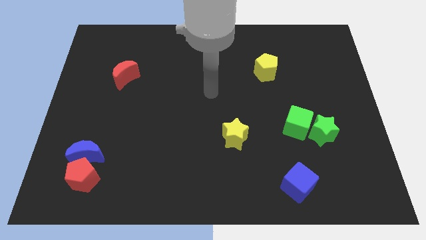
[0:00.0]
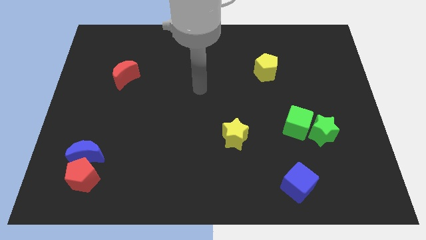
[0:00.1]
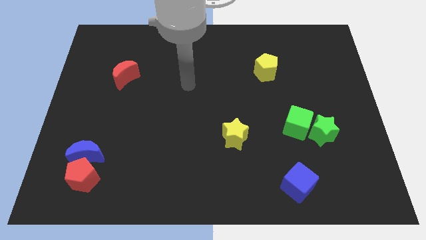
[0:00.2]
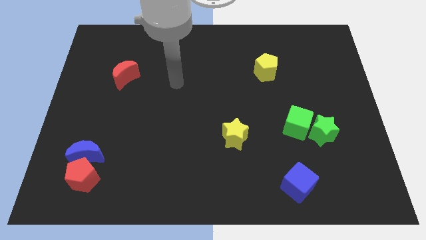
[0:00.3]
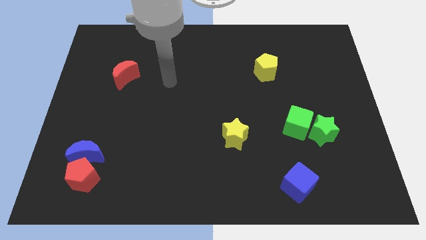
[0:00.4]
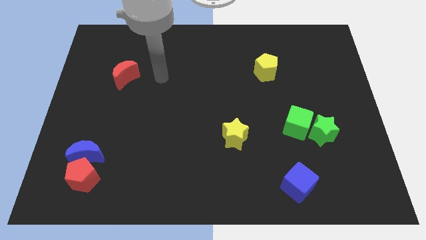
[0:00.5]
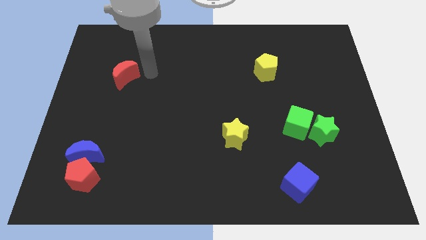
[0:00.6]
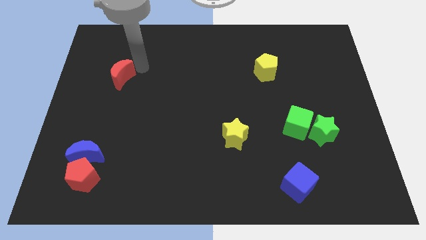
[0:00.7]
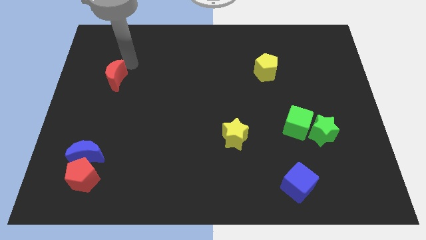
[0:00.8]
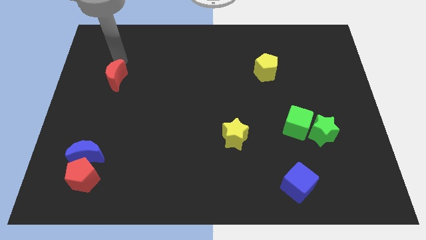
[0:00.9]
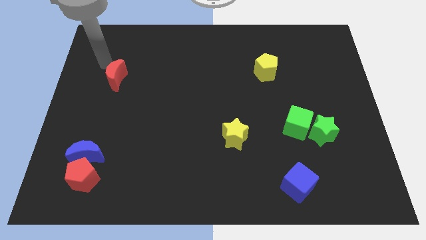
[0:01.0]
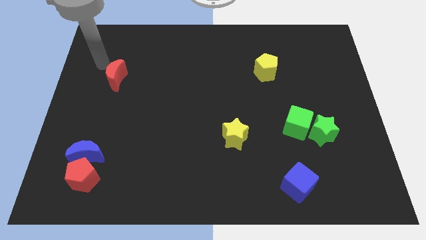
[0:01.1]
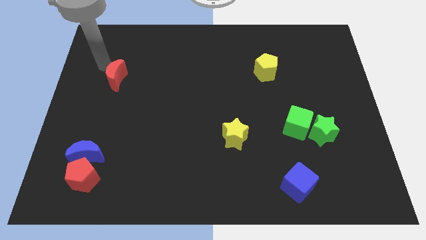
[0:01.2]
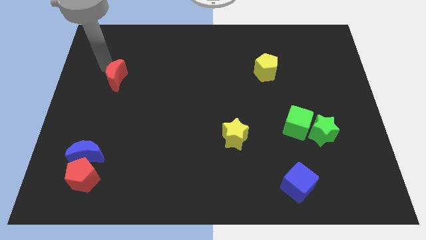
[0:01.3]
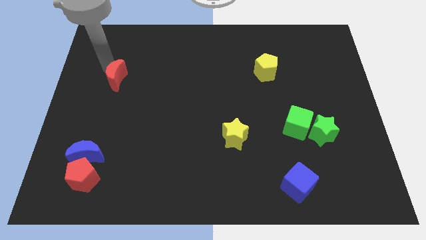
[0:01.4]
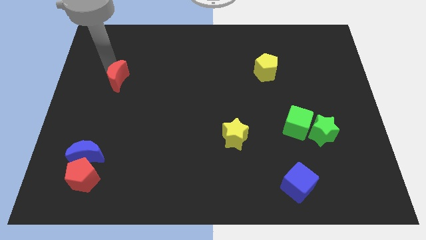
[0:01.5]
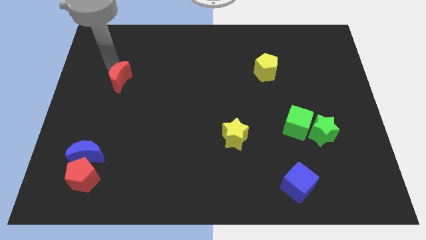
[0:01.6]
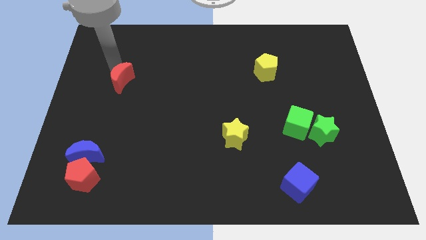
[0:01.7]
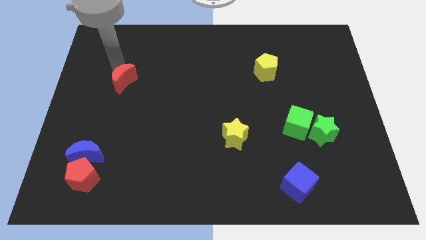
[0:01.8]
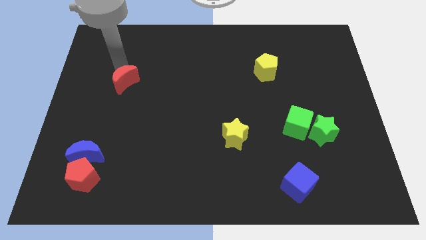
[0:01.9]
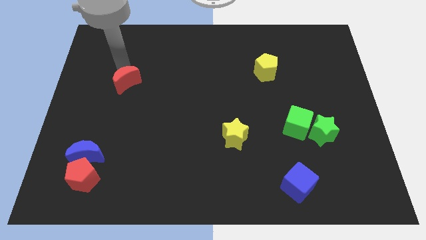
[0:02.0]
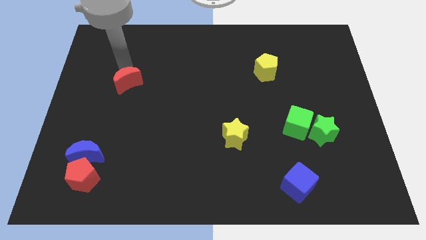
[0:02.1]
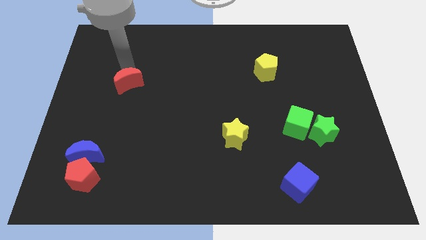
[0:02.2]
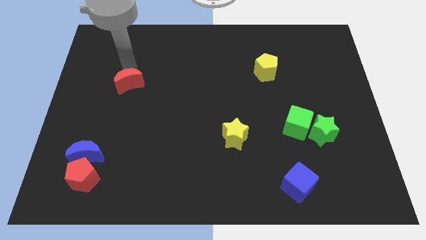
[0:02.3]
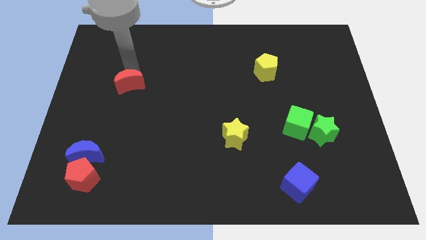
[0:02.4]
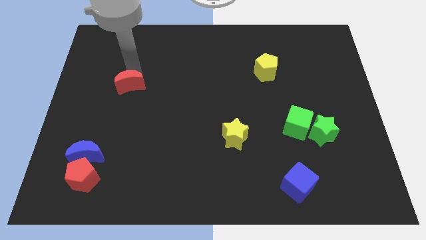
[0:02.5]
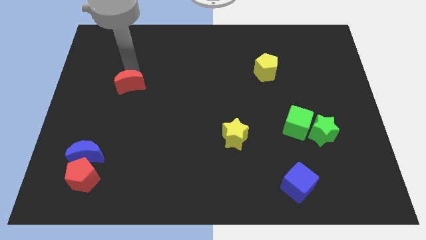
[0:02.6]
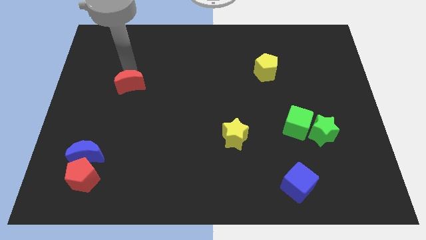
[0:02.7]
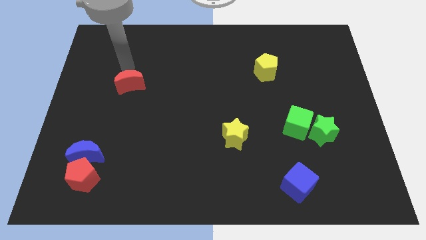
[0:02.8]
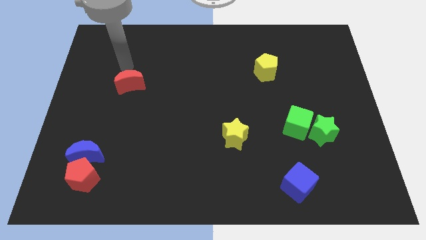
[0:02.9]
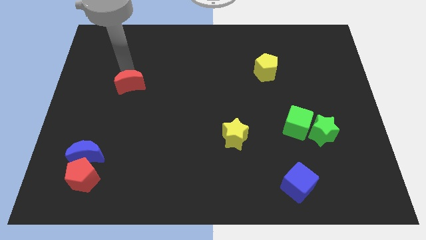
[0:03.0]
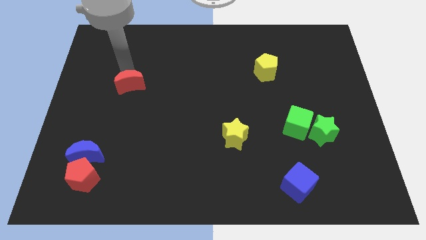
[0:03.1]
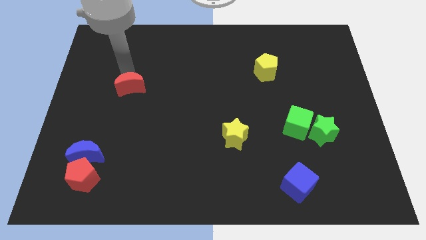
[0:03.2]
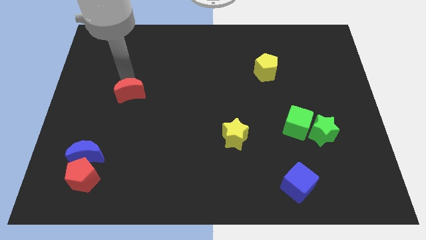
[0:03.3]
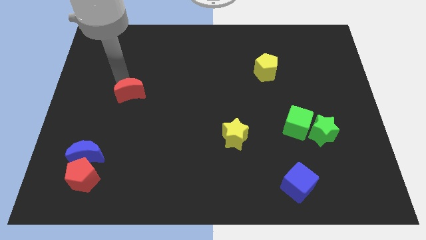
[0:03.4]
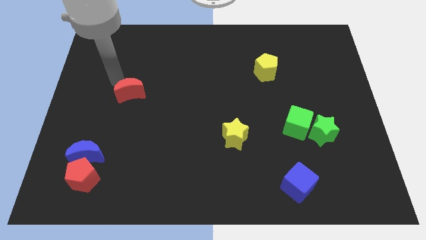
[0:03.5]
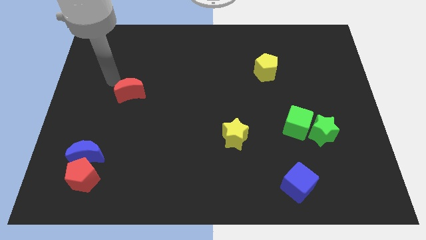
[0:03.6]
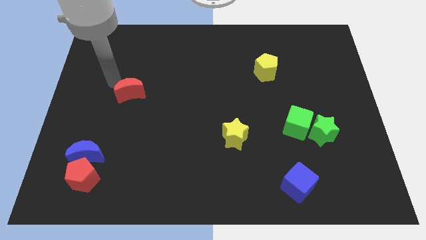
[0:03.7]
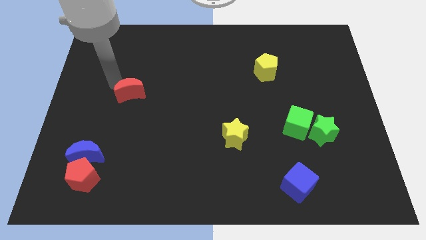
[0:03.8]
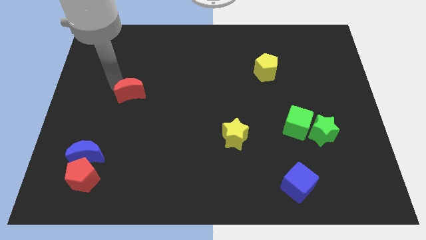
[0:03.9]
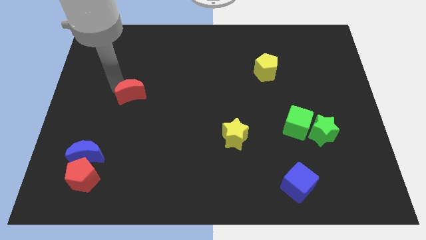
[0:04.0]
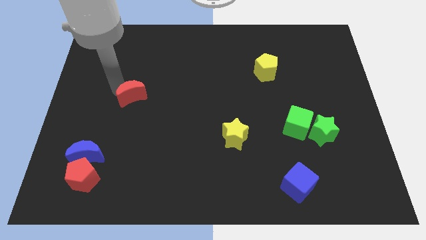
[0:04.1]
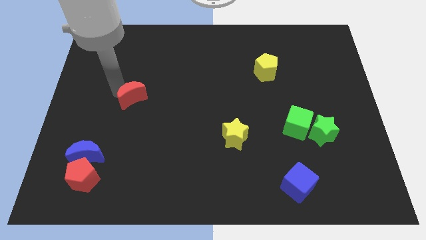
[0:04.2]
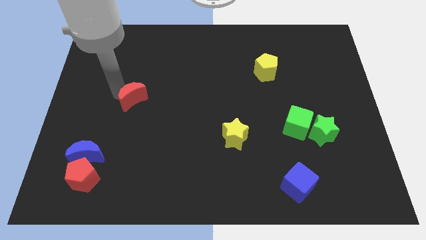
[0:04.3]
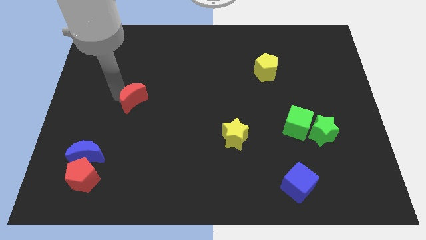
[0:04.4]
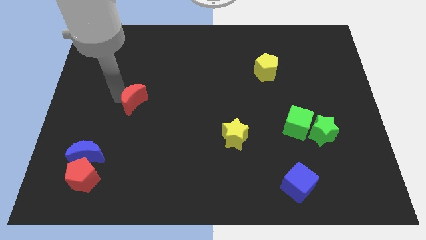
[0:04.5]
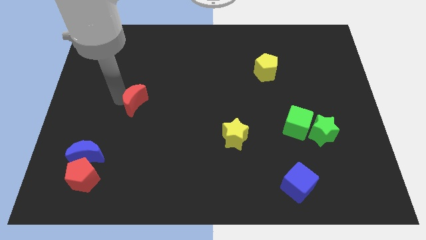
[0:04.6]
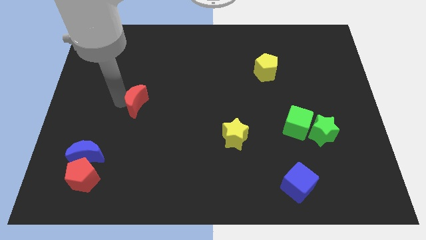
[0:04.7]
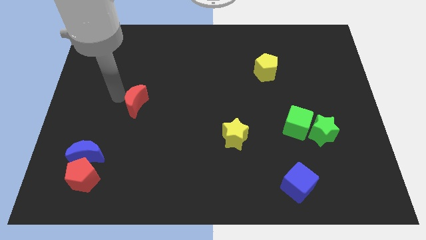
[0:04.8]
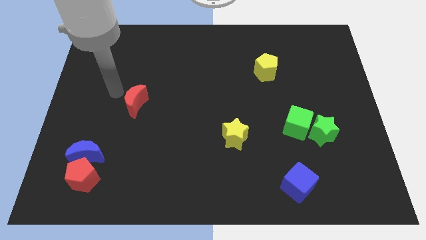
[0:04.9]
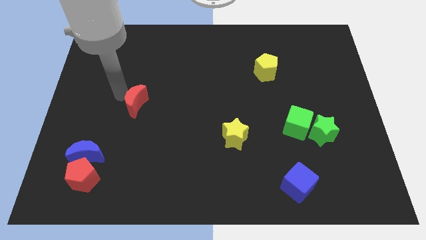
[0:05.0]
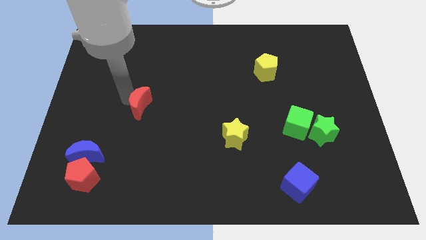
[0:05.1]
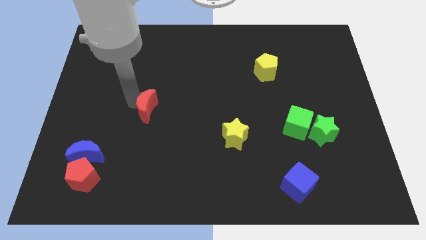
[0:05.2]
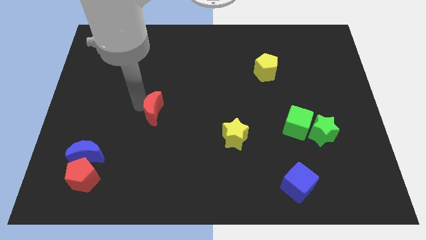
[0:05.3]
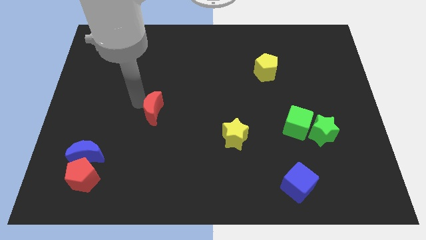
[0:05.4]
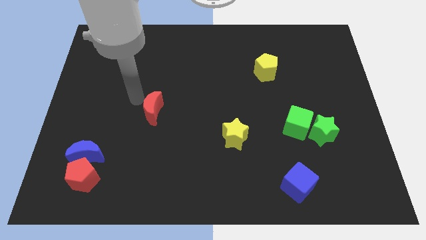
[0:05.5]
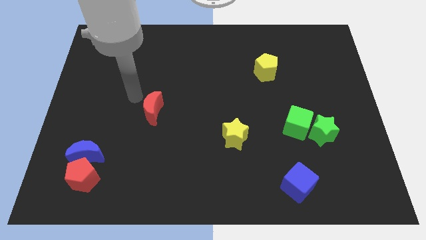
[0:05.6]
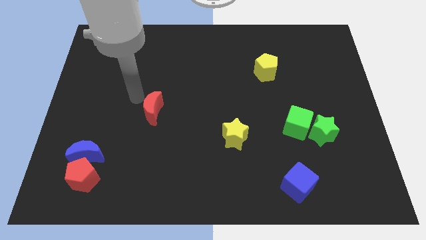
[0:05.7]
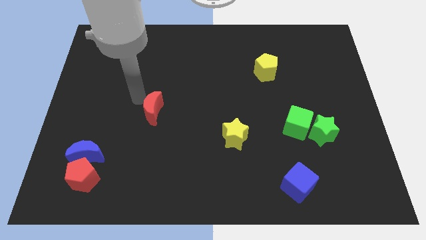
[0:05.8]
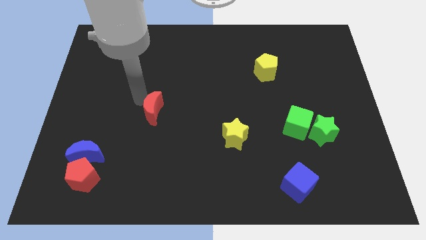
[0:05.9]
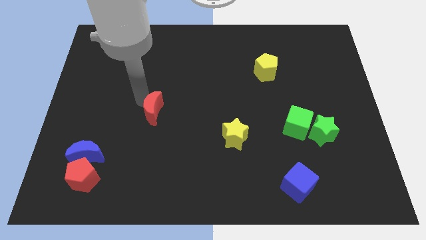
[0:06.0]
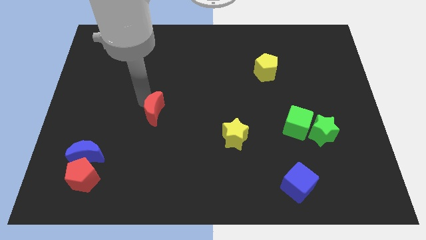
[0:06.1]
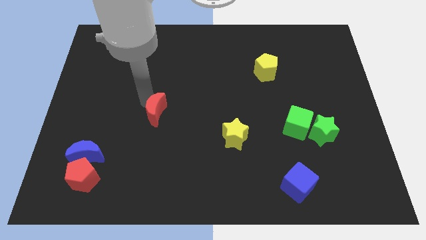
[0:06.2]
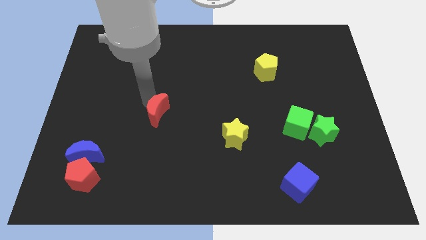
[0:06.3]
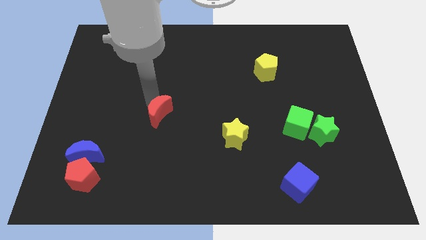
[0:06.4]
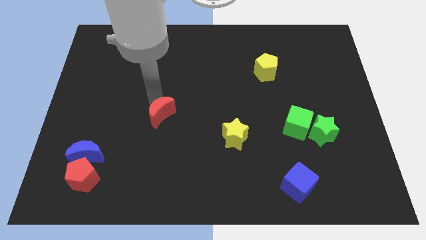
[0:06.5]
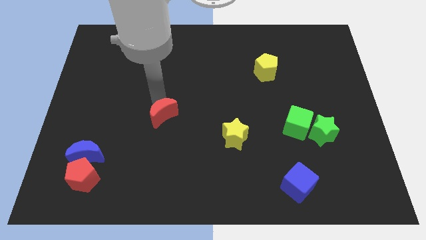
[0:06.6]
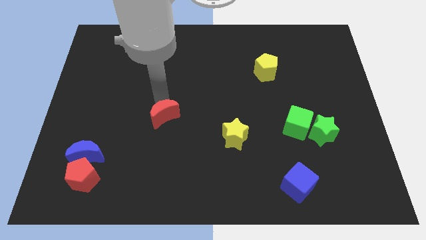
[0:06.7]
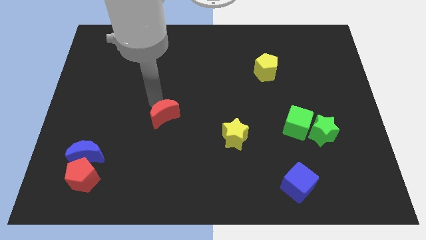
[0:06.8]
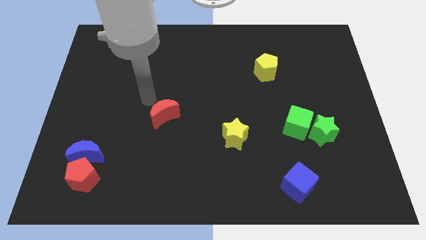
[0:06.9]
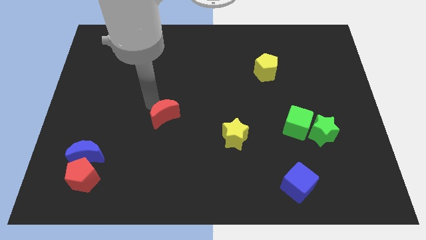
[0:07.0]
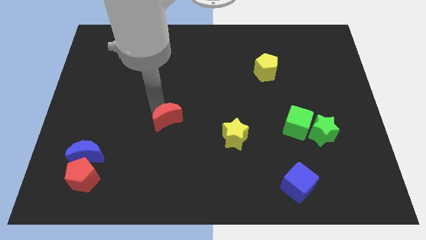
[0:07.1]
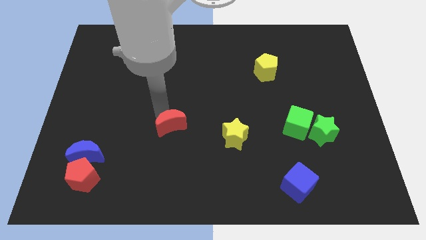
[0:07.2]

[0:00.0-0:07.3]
put the red moon left of the yellow star

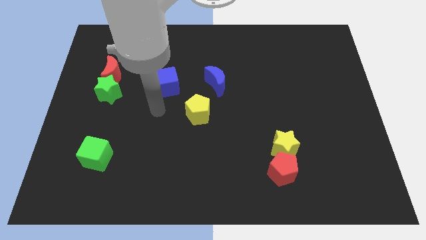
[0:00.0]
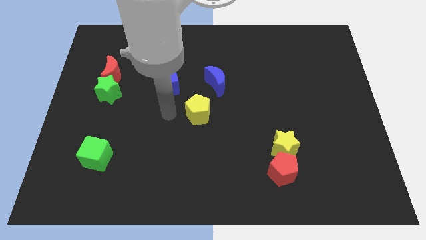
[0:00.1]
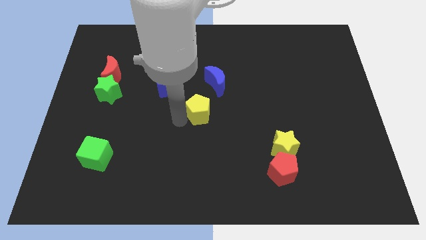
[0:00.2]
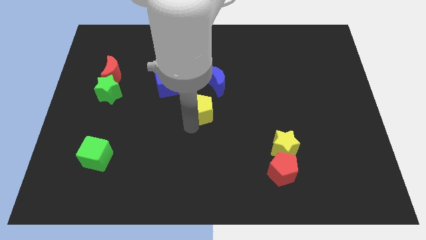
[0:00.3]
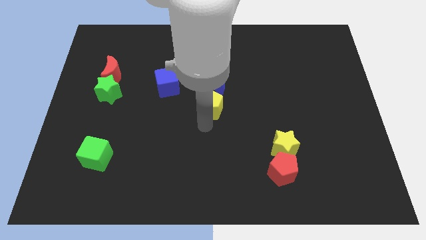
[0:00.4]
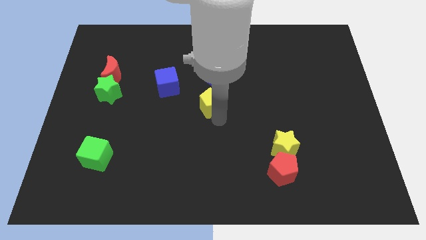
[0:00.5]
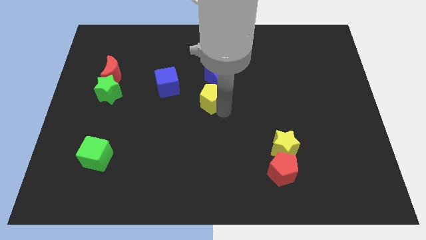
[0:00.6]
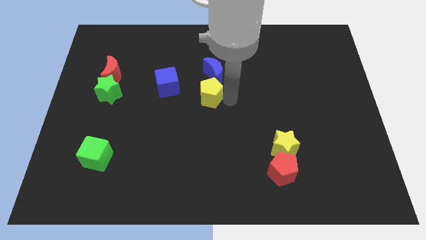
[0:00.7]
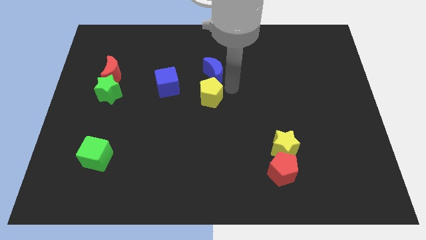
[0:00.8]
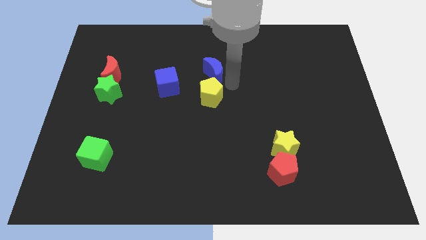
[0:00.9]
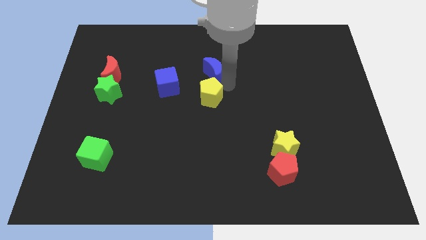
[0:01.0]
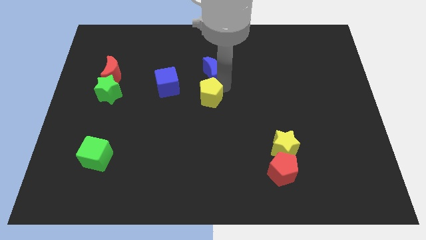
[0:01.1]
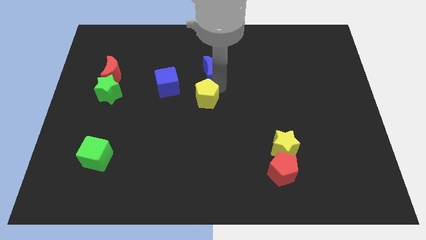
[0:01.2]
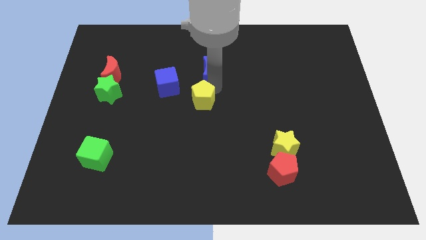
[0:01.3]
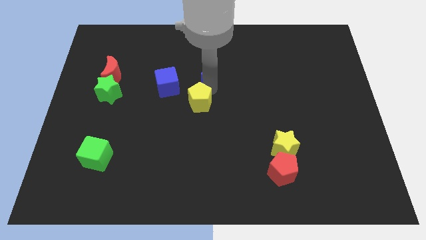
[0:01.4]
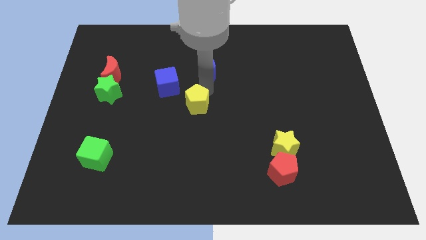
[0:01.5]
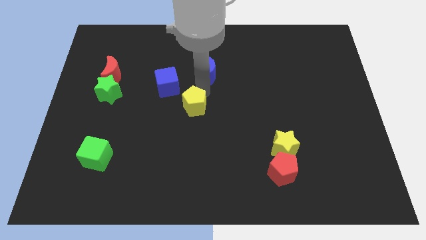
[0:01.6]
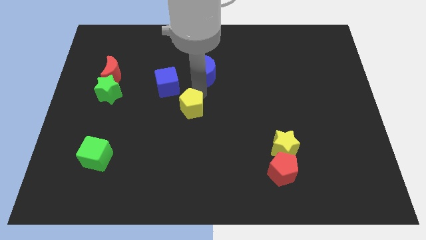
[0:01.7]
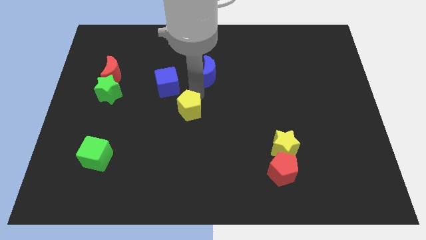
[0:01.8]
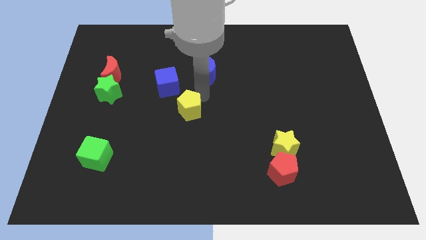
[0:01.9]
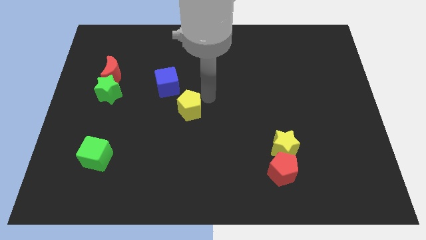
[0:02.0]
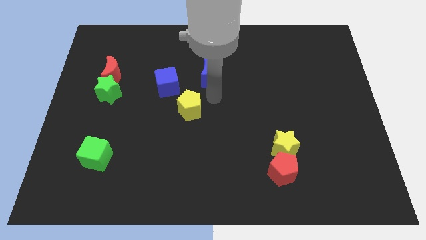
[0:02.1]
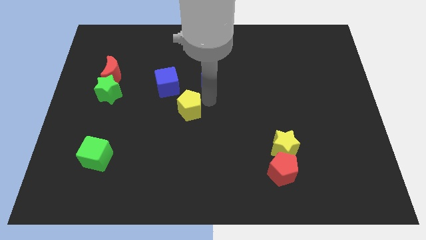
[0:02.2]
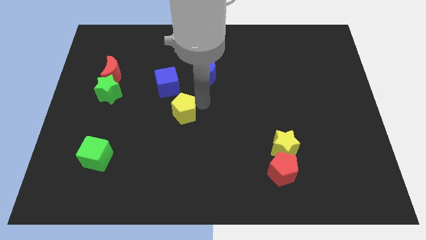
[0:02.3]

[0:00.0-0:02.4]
push the yellow pentagon to the bottom side of the blue cube
